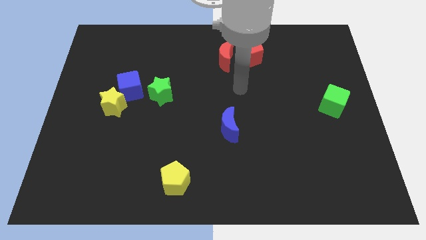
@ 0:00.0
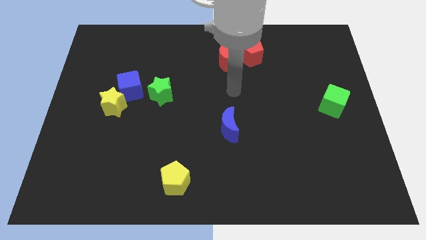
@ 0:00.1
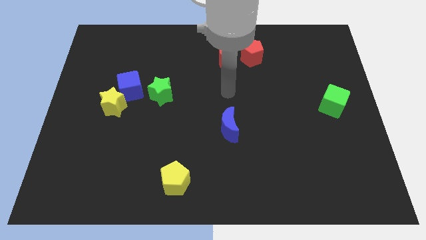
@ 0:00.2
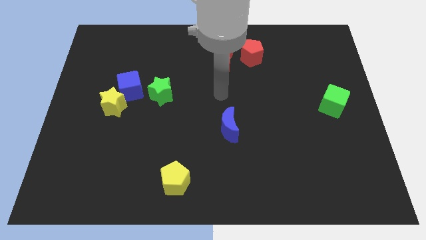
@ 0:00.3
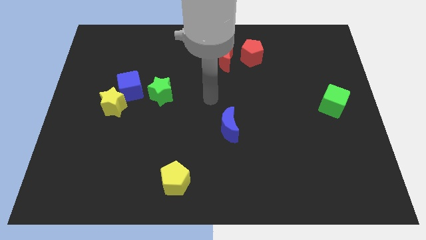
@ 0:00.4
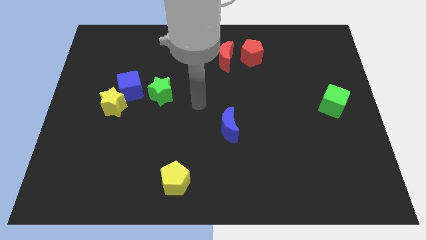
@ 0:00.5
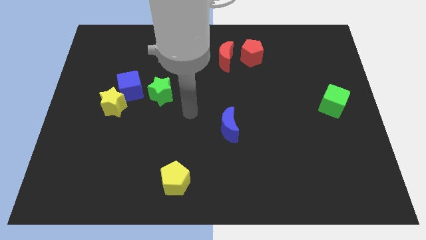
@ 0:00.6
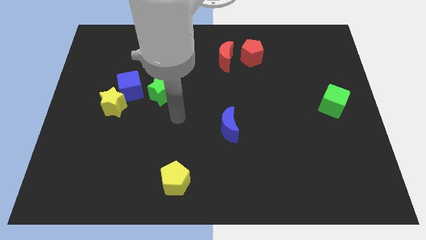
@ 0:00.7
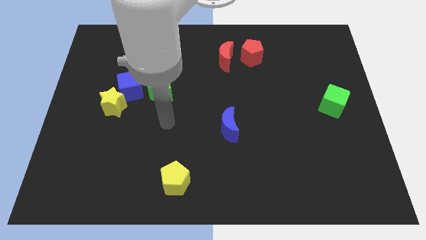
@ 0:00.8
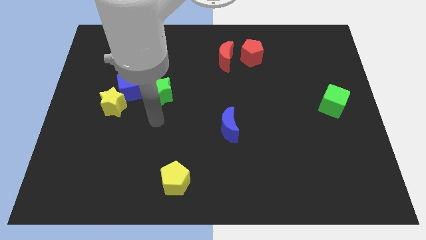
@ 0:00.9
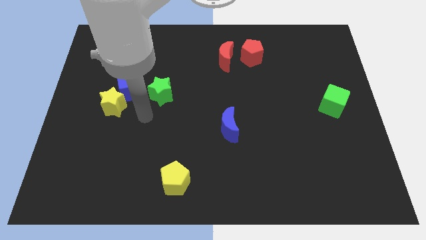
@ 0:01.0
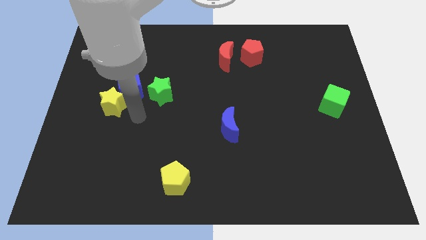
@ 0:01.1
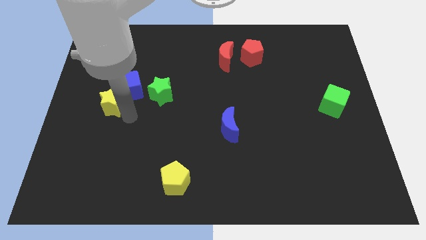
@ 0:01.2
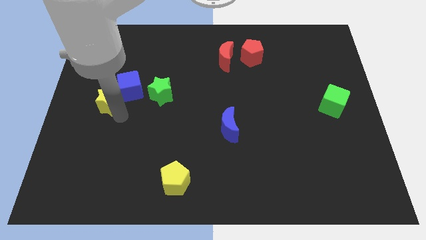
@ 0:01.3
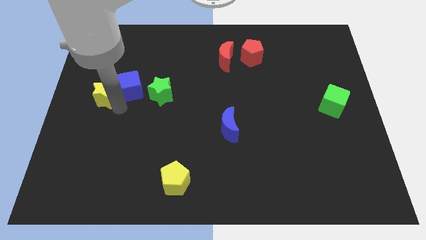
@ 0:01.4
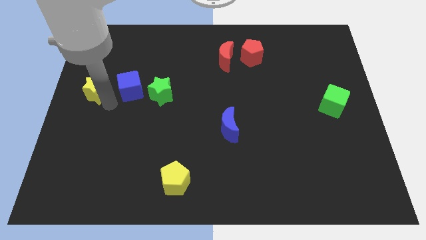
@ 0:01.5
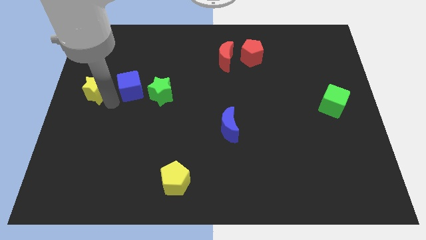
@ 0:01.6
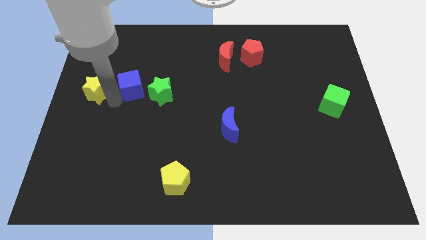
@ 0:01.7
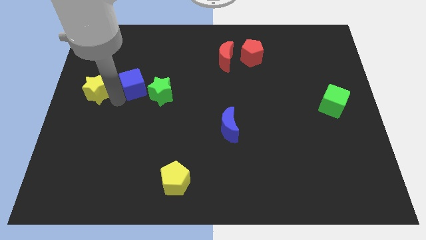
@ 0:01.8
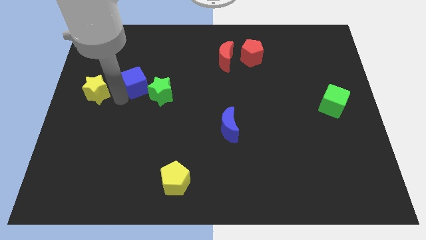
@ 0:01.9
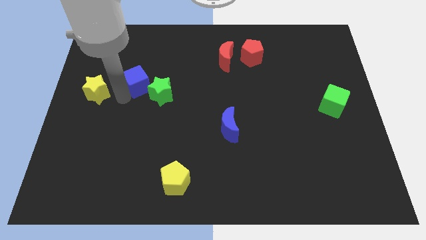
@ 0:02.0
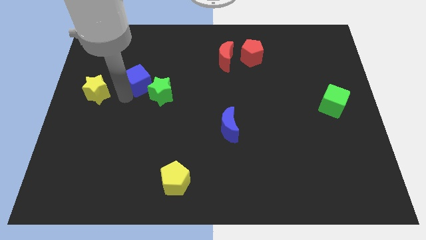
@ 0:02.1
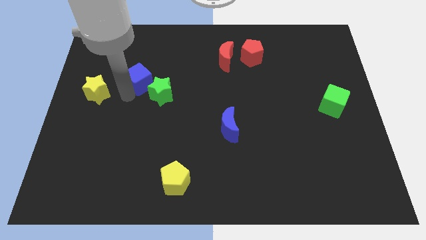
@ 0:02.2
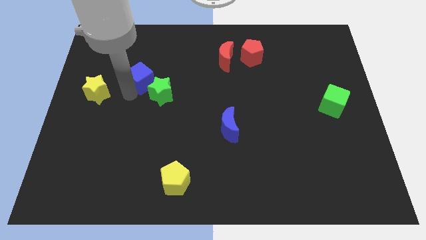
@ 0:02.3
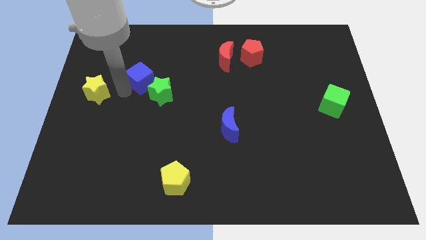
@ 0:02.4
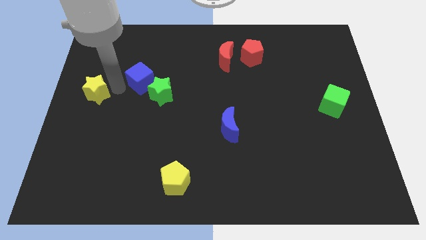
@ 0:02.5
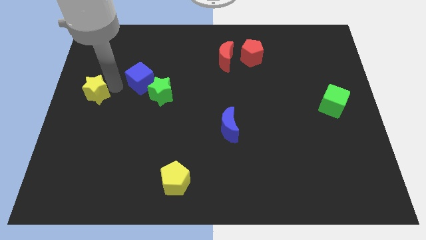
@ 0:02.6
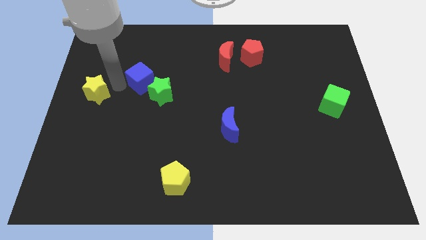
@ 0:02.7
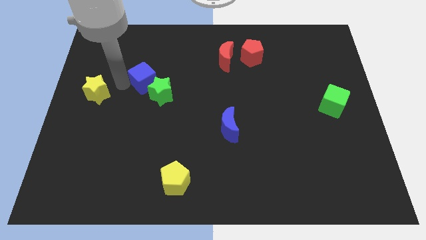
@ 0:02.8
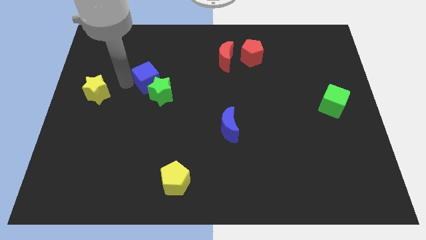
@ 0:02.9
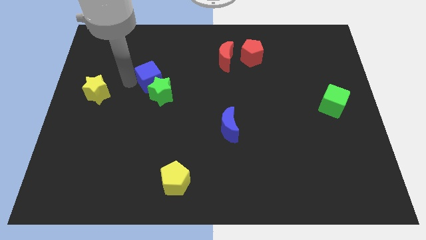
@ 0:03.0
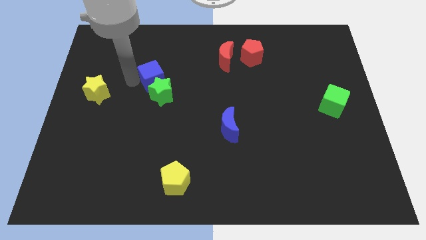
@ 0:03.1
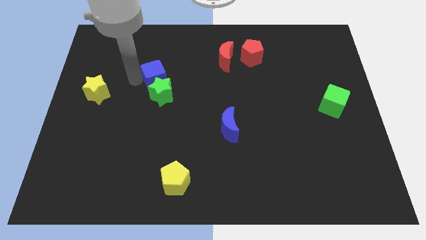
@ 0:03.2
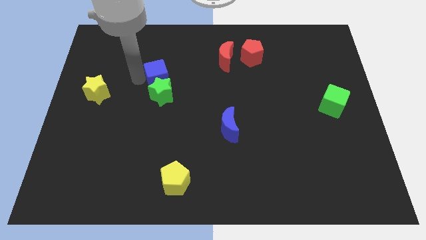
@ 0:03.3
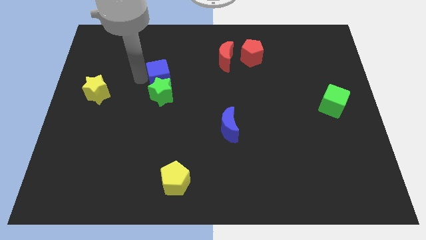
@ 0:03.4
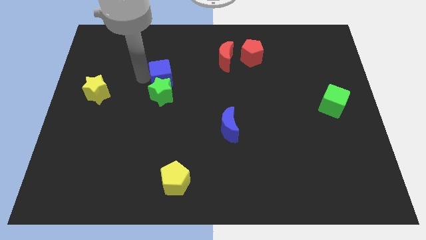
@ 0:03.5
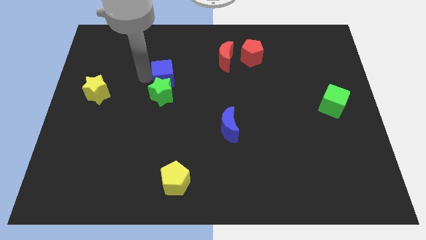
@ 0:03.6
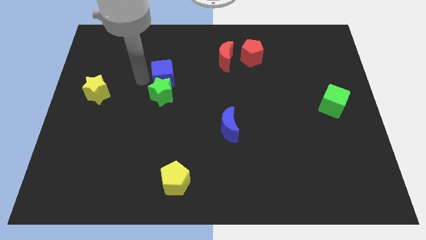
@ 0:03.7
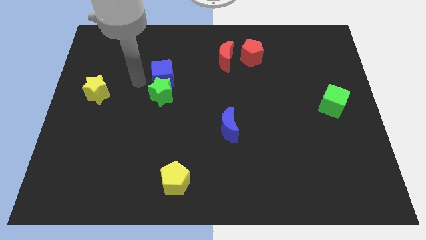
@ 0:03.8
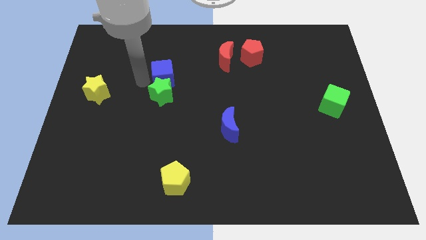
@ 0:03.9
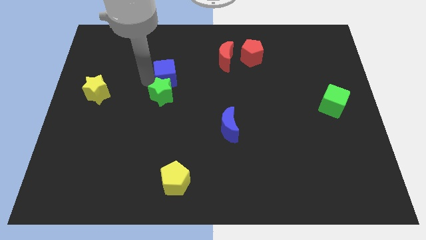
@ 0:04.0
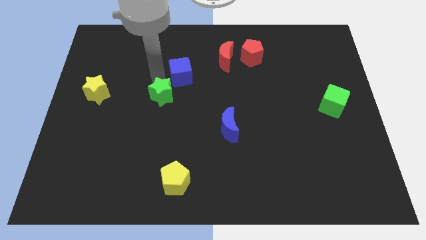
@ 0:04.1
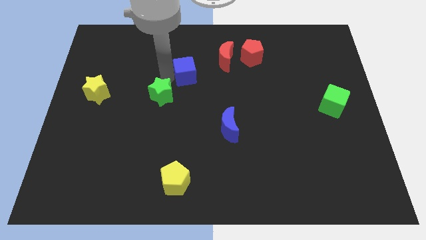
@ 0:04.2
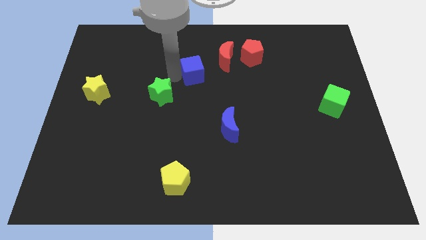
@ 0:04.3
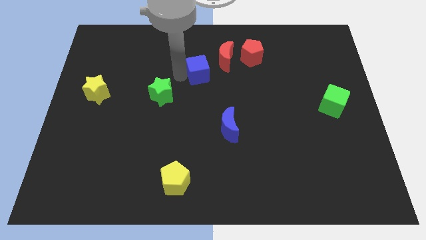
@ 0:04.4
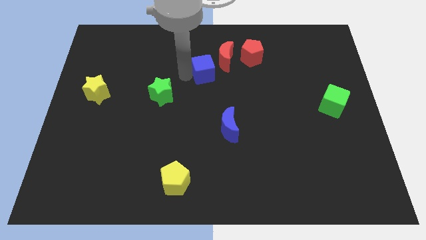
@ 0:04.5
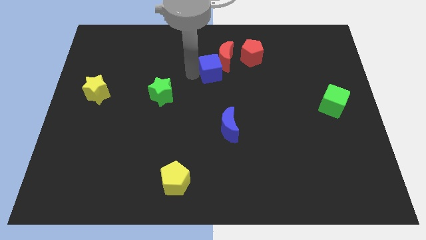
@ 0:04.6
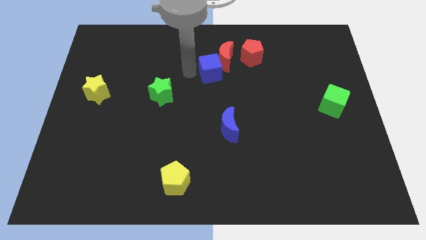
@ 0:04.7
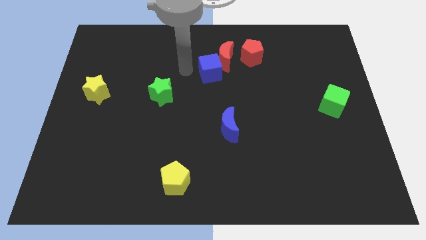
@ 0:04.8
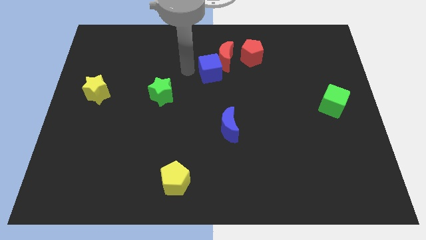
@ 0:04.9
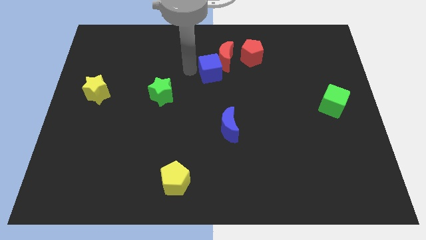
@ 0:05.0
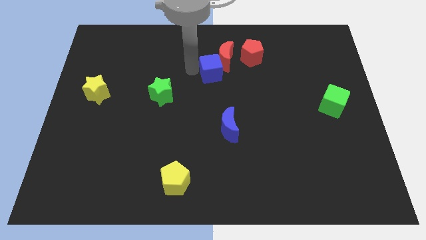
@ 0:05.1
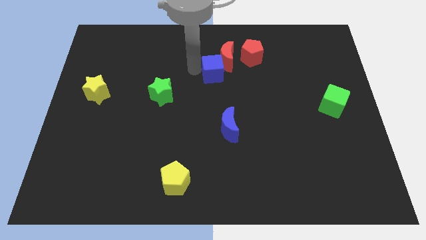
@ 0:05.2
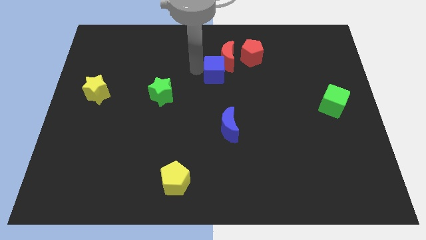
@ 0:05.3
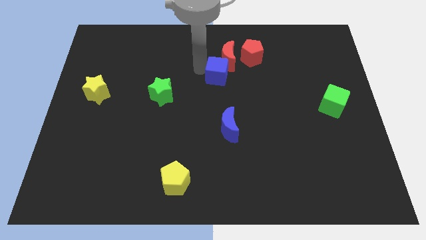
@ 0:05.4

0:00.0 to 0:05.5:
push the blue cube to the right

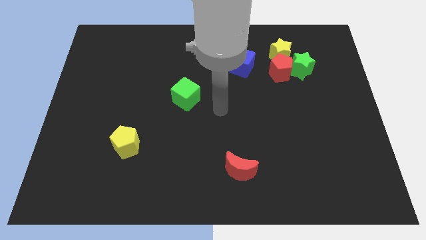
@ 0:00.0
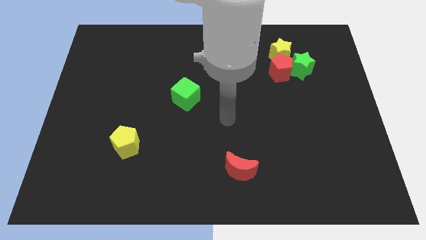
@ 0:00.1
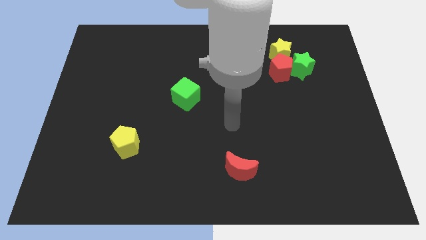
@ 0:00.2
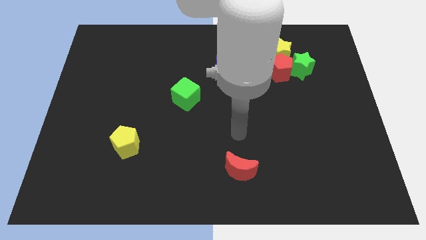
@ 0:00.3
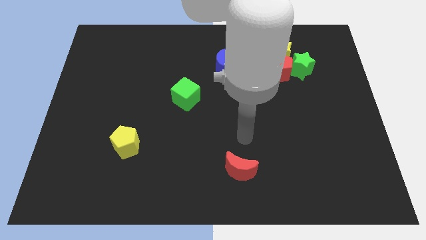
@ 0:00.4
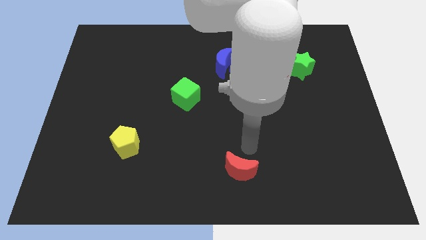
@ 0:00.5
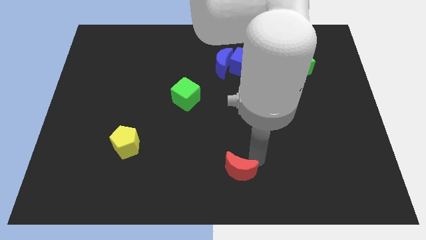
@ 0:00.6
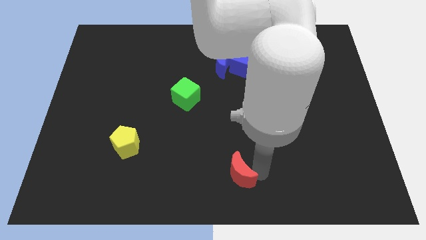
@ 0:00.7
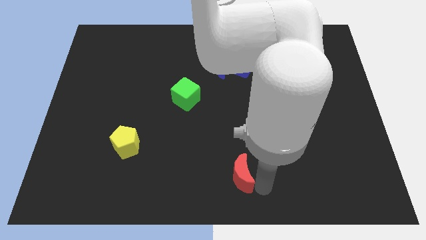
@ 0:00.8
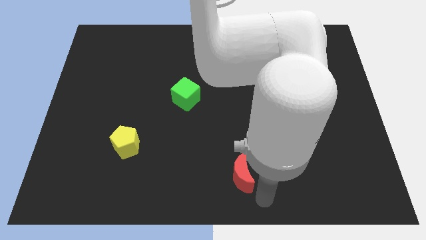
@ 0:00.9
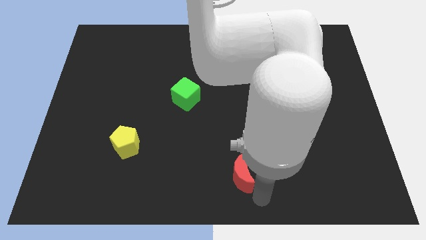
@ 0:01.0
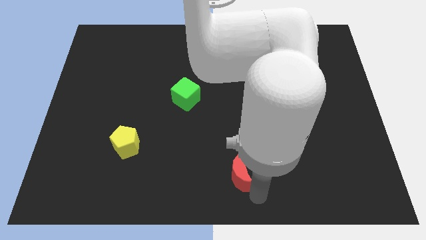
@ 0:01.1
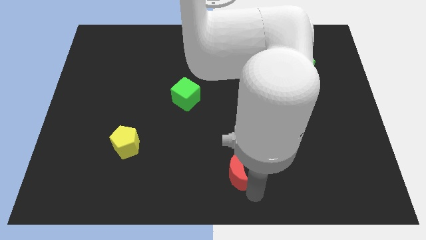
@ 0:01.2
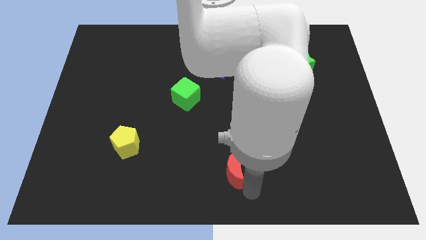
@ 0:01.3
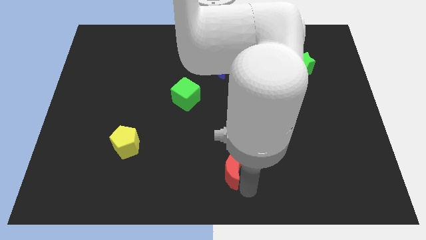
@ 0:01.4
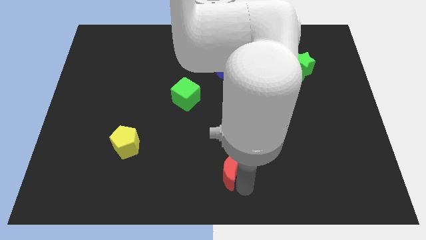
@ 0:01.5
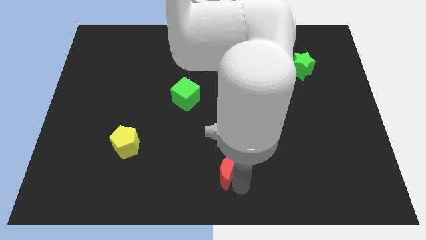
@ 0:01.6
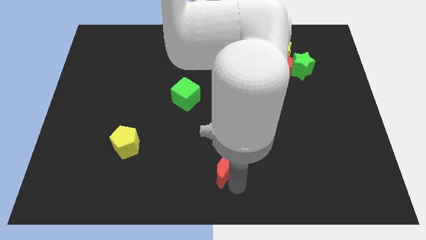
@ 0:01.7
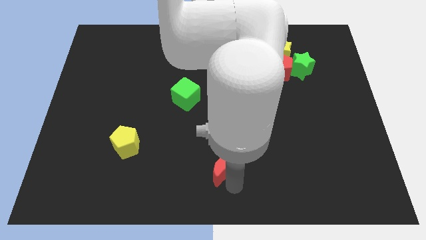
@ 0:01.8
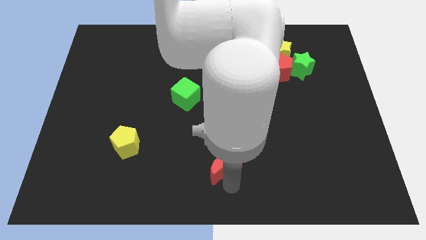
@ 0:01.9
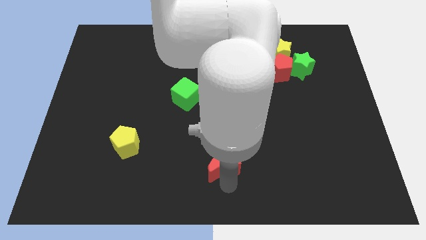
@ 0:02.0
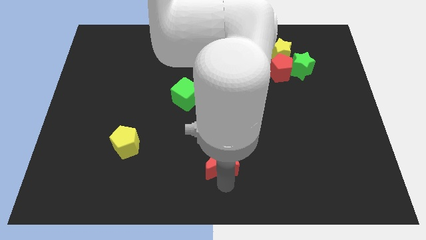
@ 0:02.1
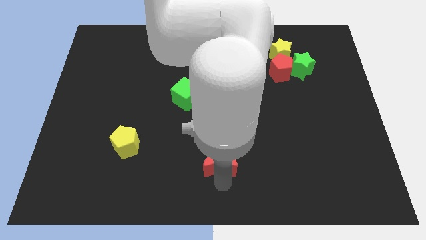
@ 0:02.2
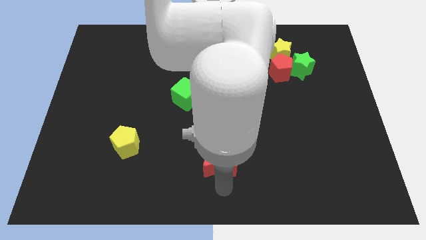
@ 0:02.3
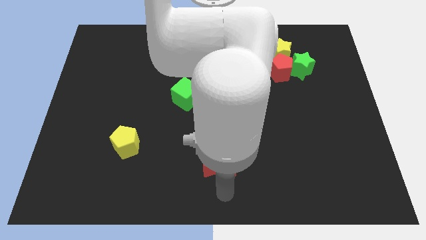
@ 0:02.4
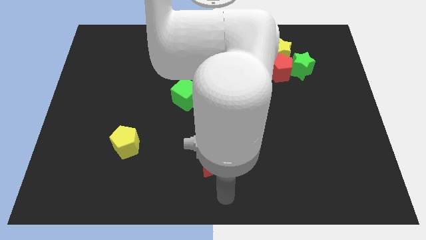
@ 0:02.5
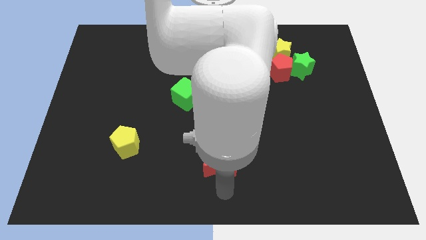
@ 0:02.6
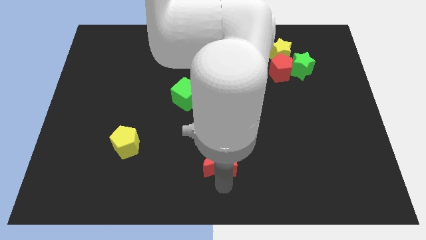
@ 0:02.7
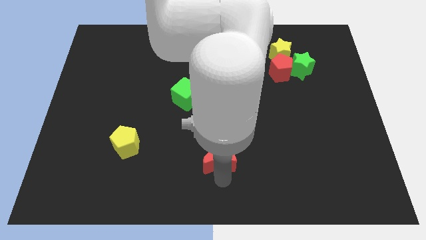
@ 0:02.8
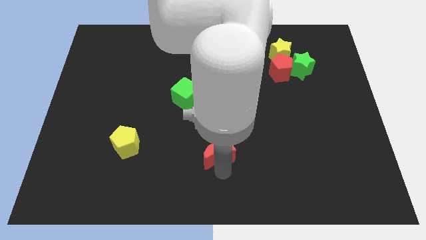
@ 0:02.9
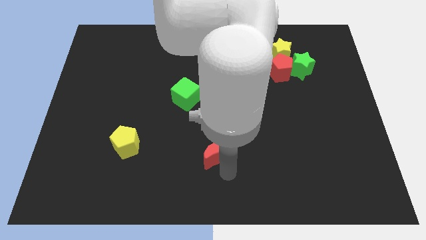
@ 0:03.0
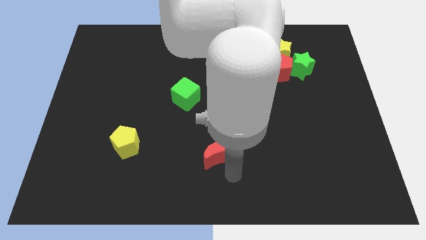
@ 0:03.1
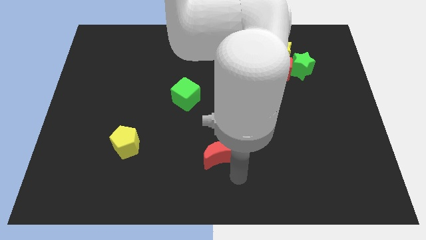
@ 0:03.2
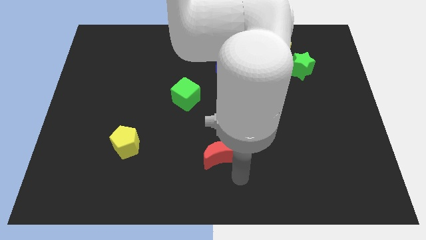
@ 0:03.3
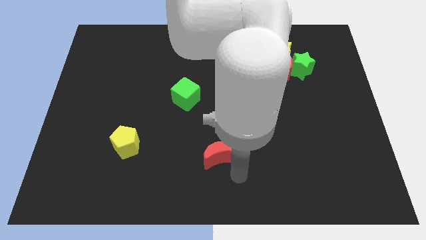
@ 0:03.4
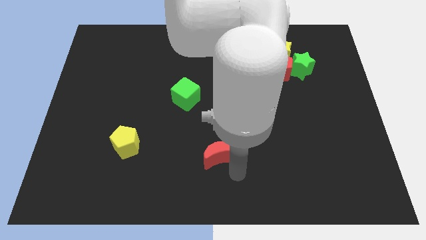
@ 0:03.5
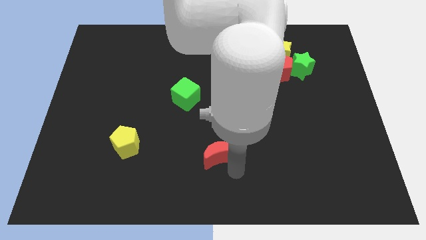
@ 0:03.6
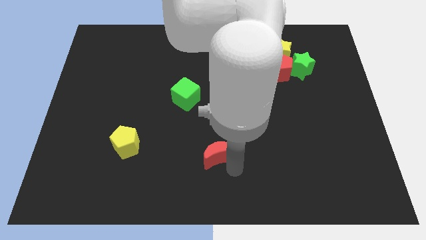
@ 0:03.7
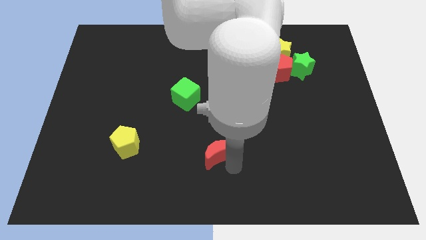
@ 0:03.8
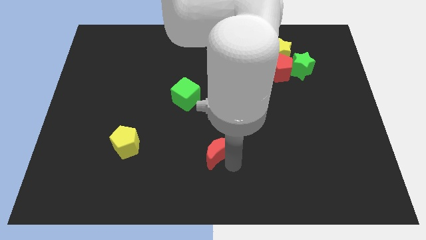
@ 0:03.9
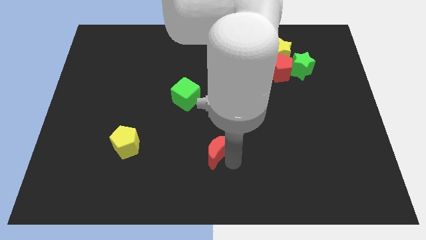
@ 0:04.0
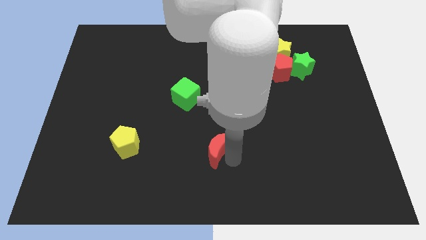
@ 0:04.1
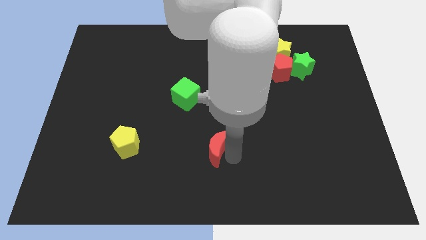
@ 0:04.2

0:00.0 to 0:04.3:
slightly slide the red moon upwards and to the left
